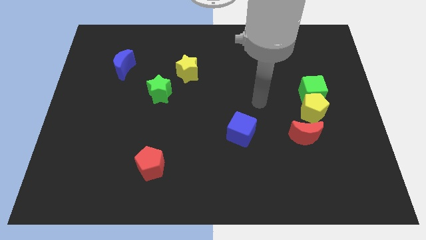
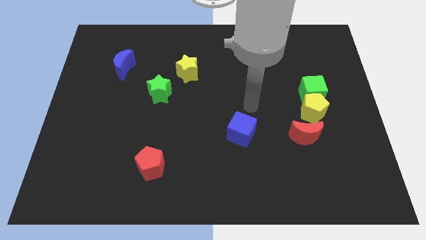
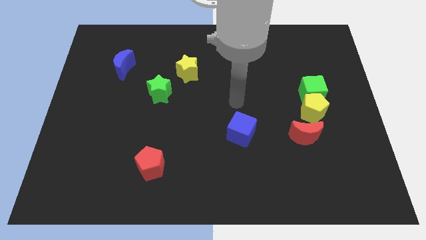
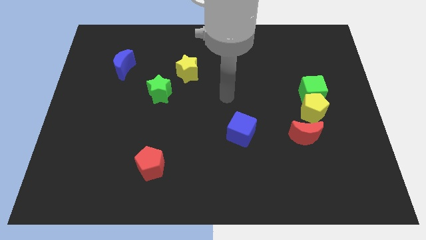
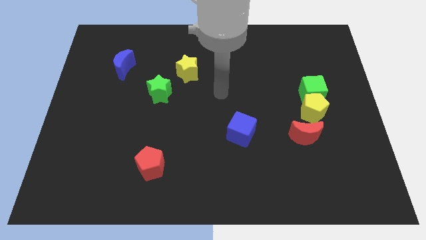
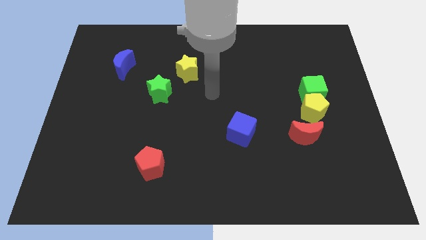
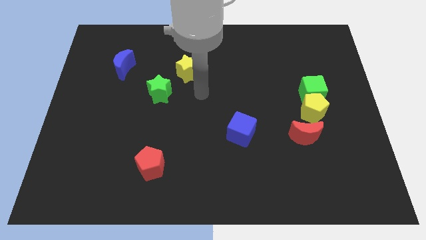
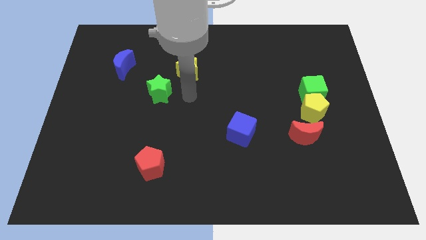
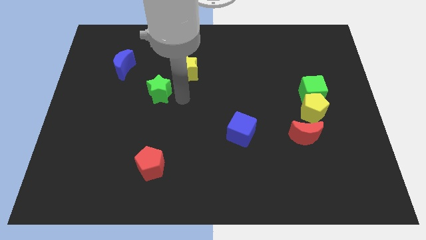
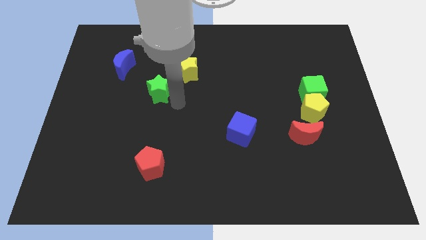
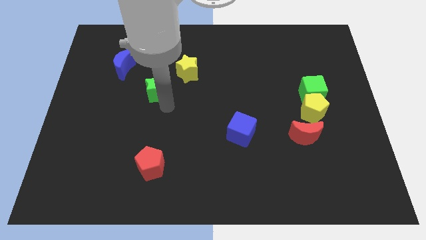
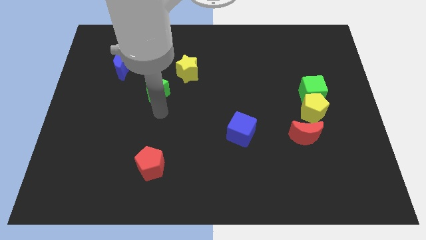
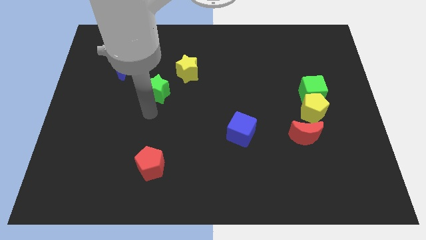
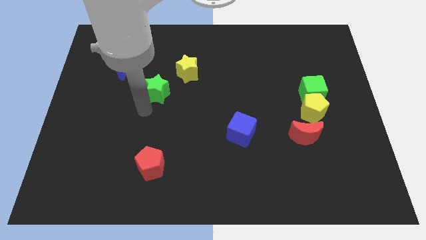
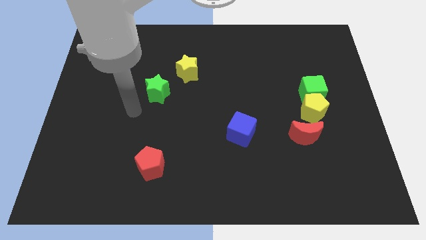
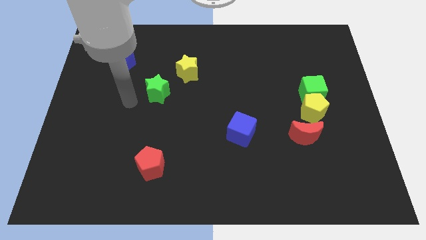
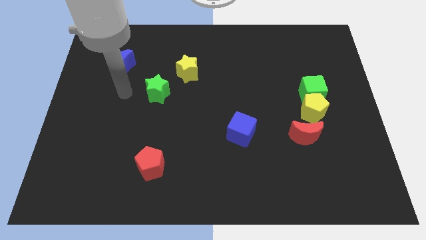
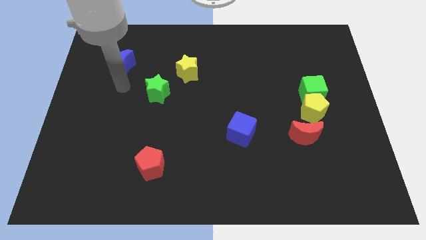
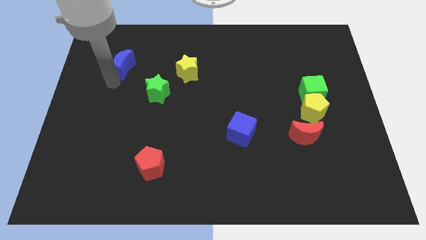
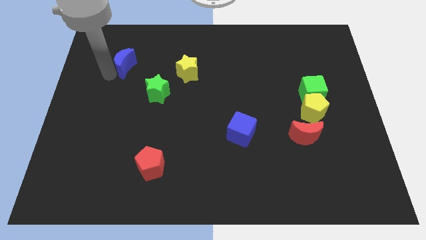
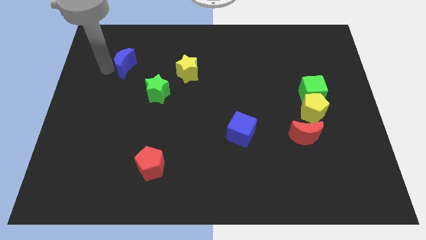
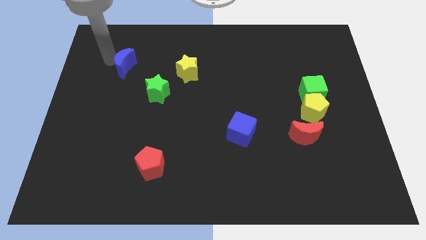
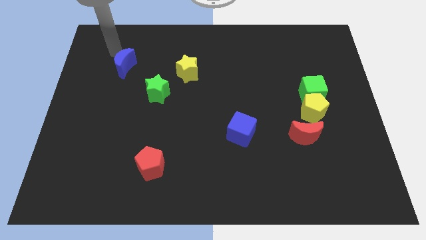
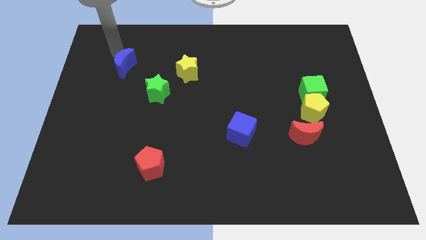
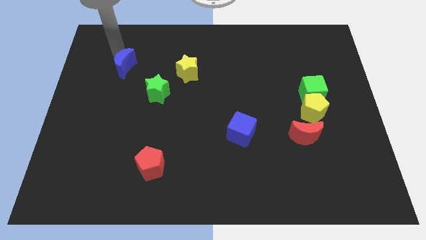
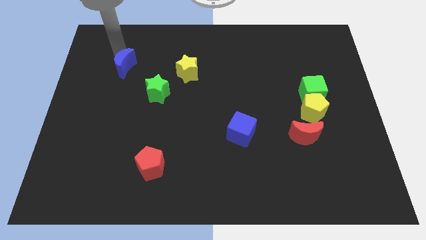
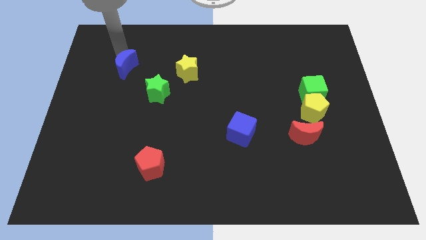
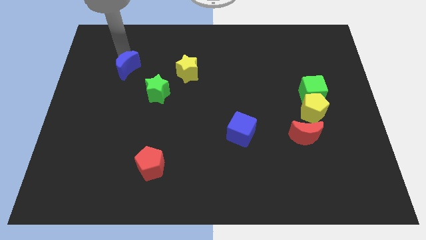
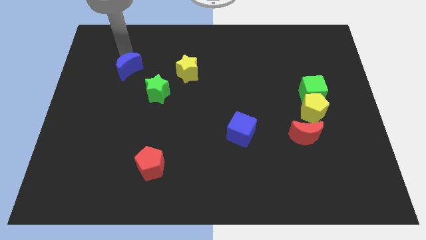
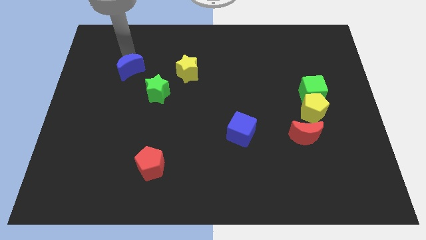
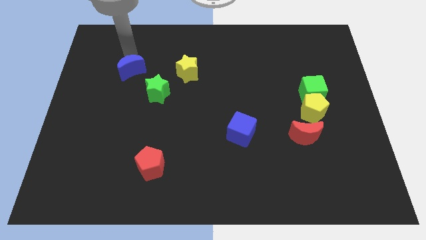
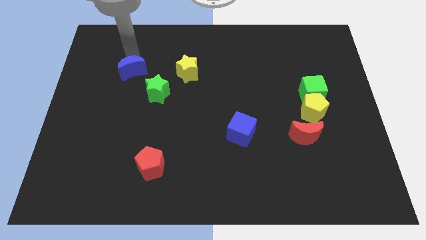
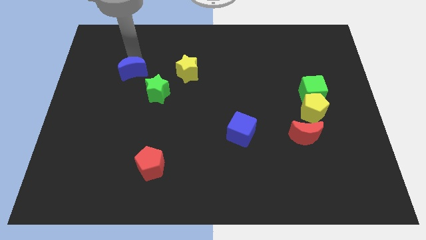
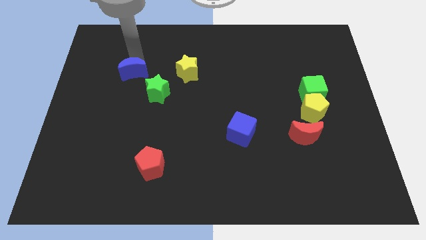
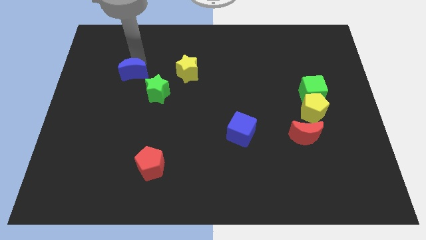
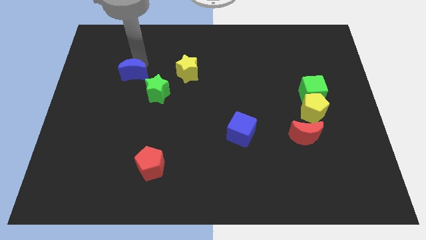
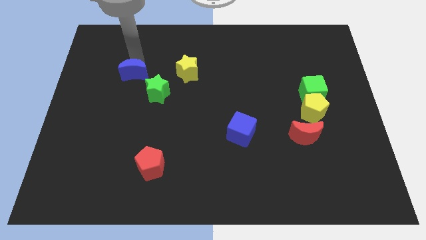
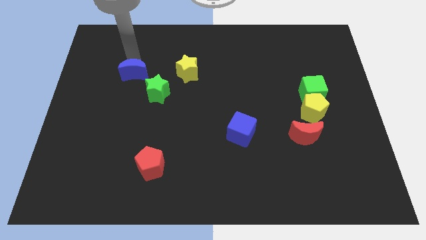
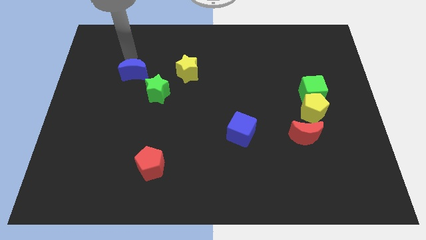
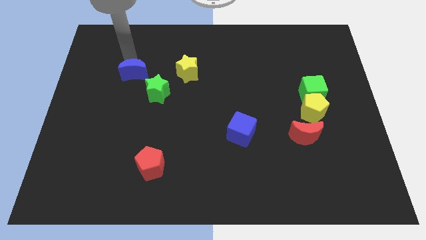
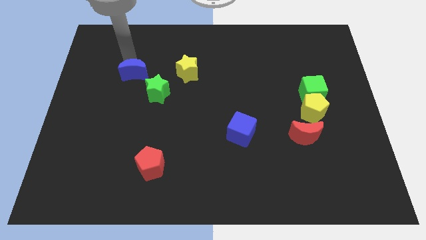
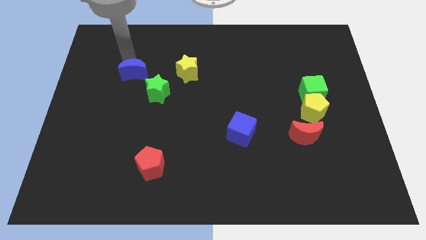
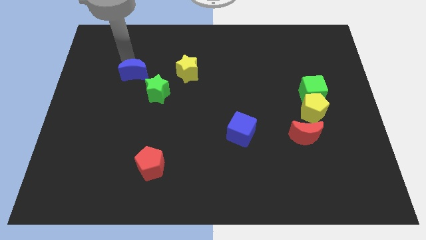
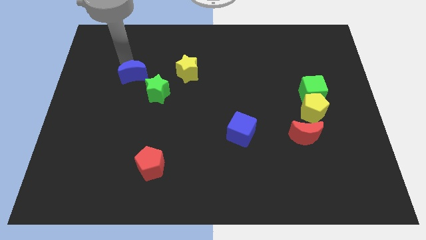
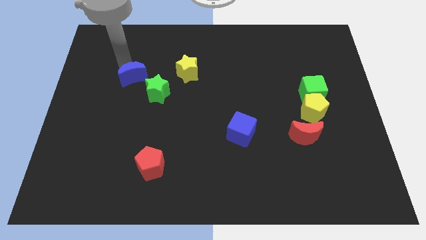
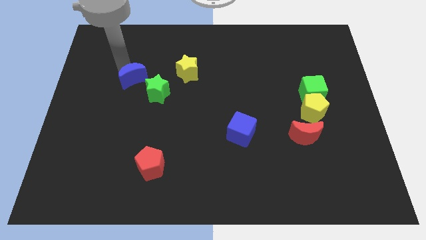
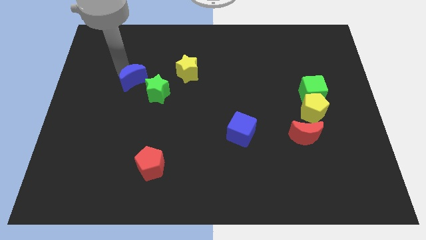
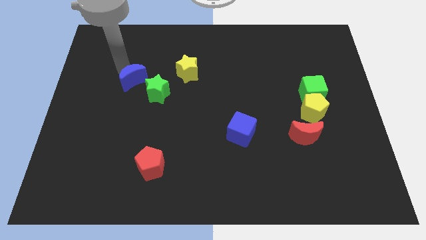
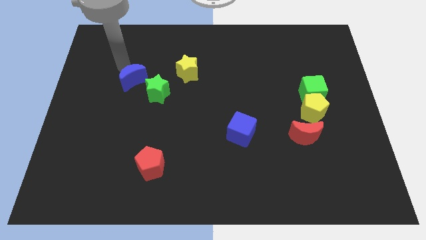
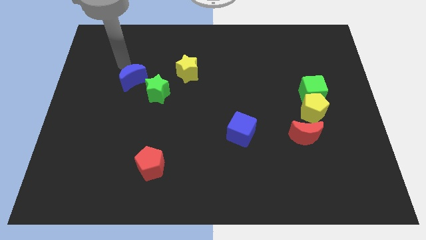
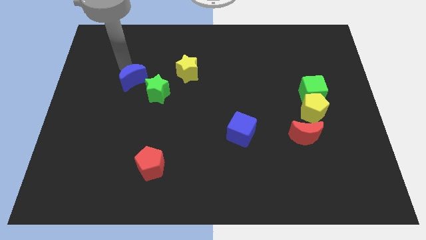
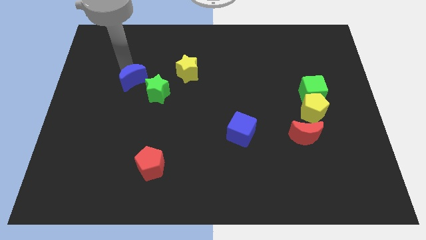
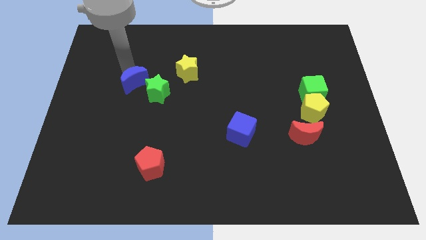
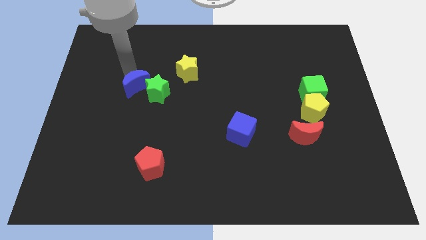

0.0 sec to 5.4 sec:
push the blue moon a bit down and then right

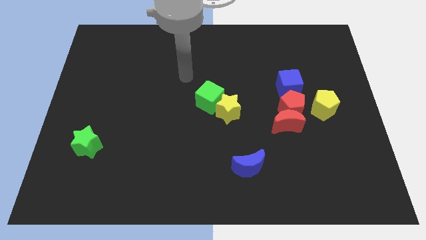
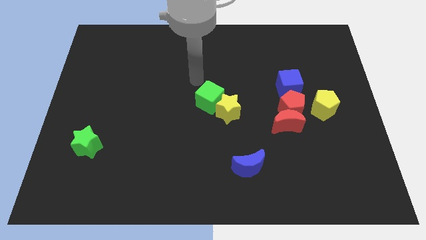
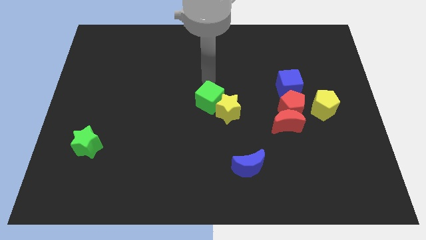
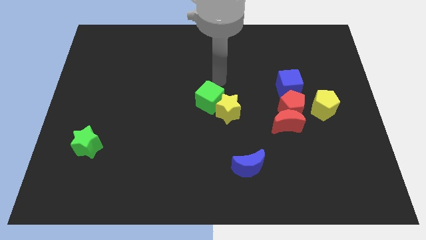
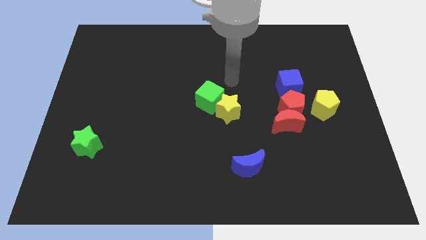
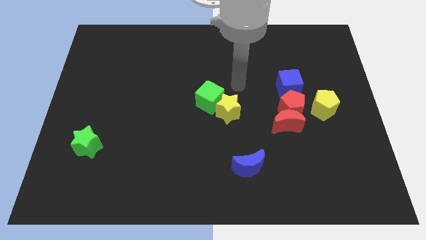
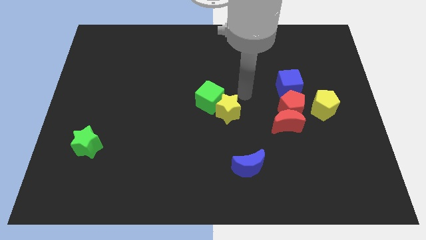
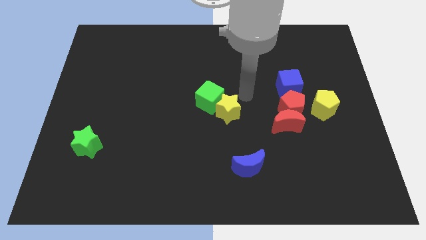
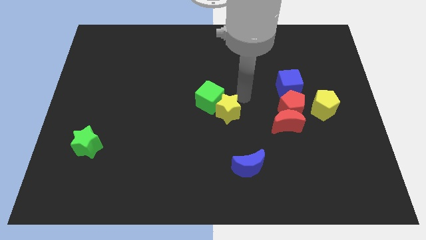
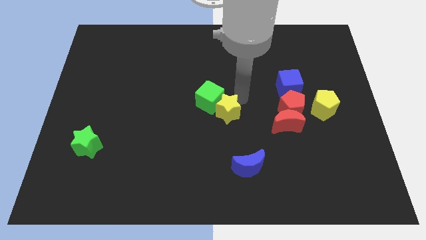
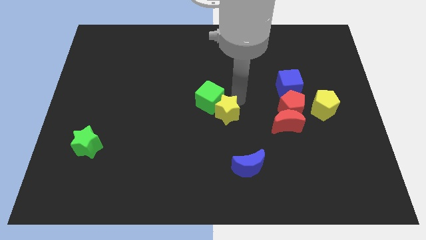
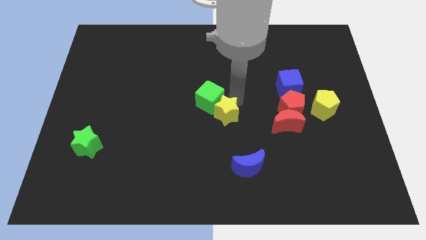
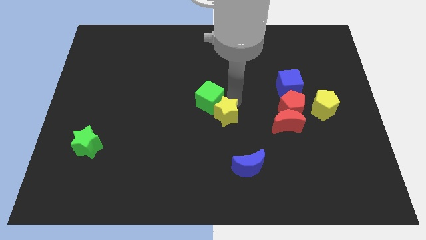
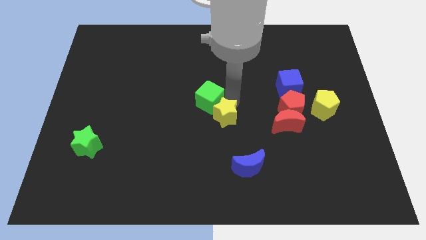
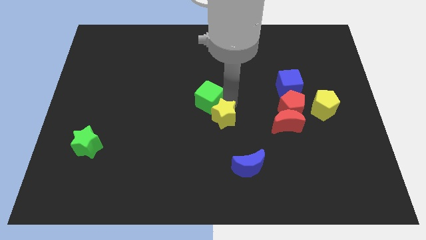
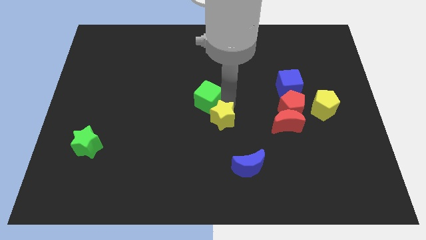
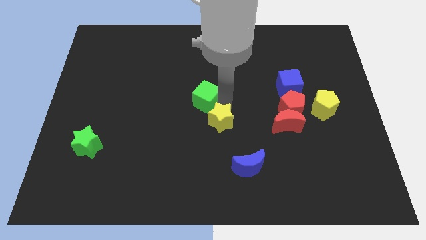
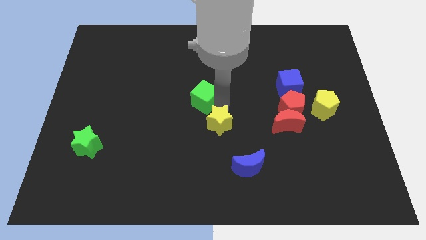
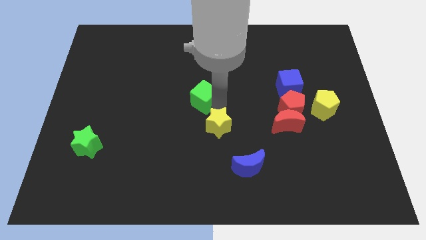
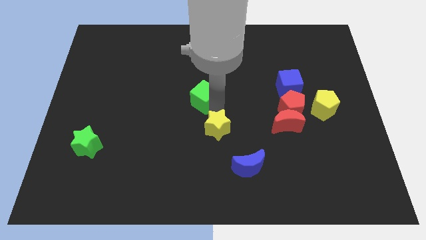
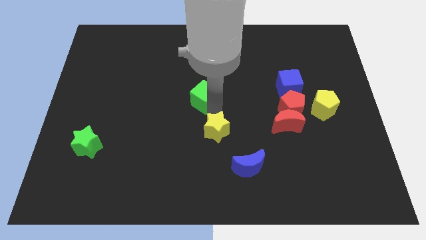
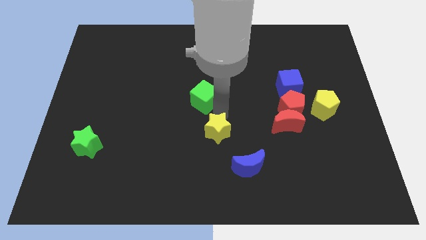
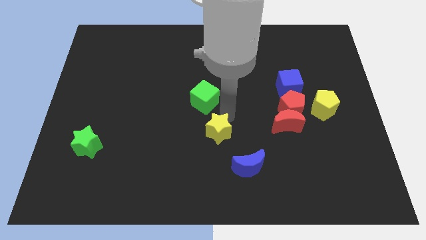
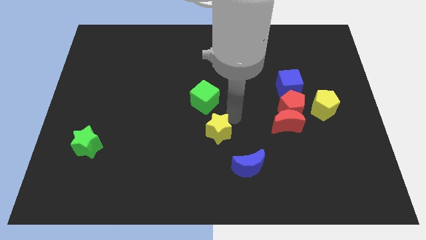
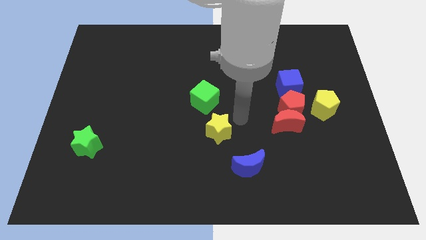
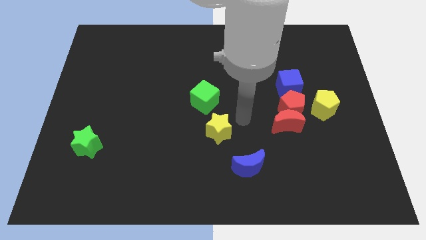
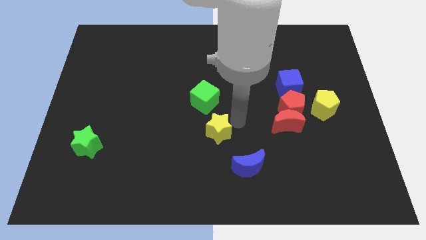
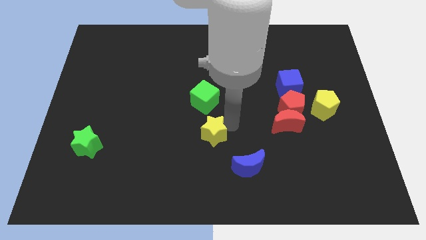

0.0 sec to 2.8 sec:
push the yellow star diagonally downwards and to the left a little
